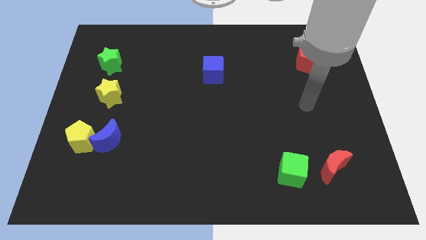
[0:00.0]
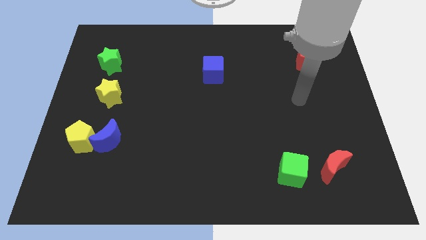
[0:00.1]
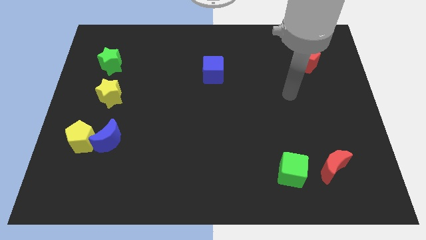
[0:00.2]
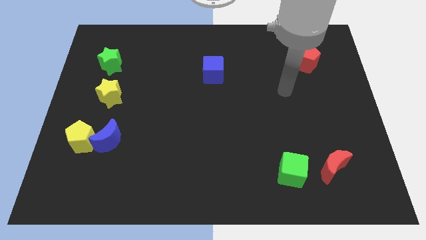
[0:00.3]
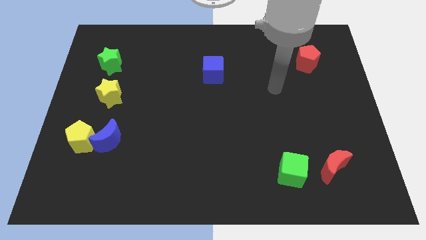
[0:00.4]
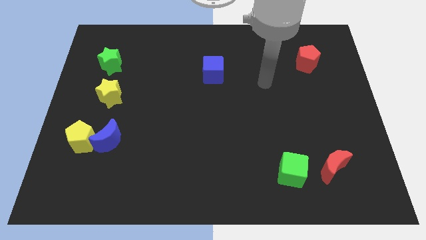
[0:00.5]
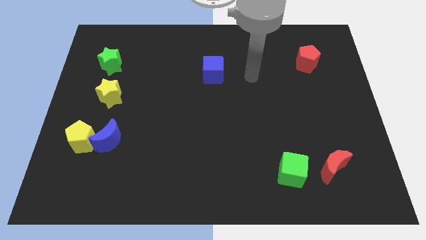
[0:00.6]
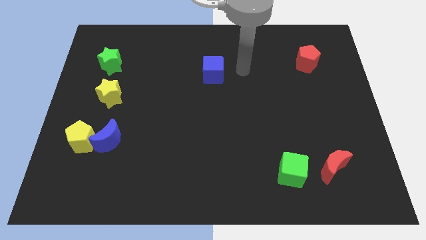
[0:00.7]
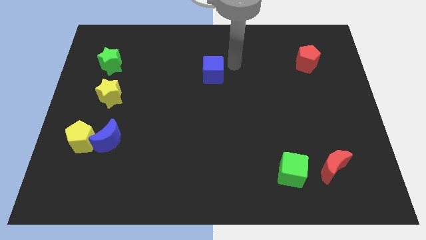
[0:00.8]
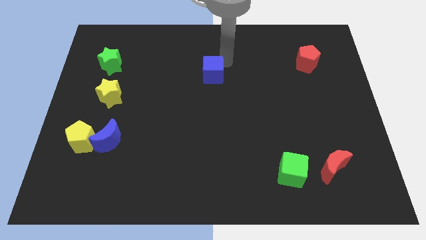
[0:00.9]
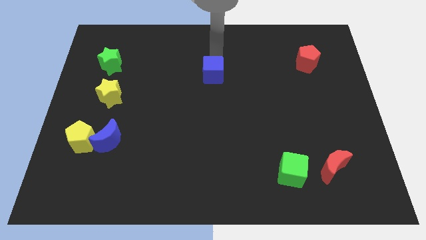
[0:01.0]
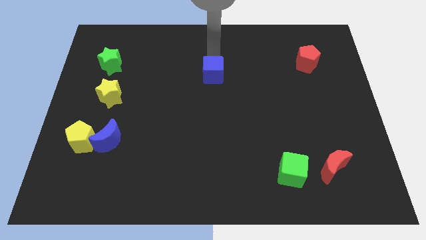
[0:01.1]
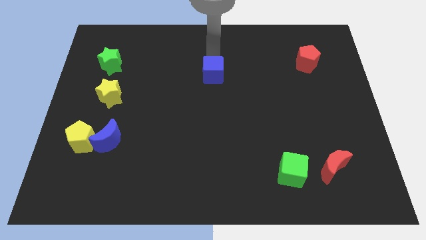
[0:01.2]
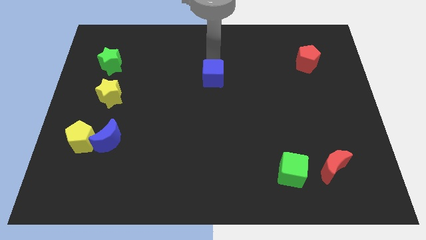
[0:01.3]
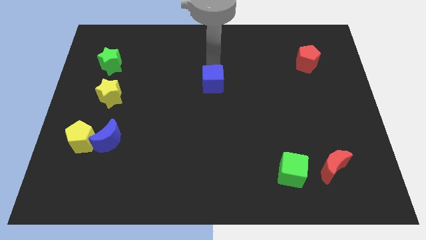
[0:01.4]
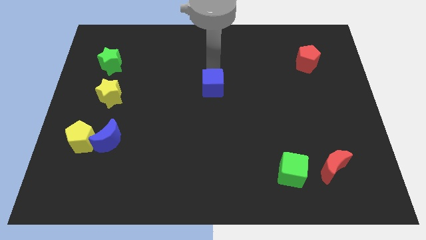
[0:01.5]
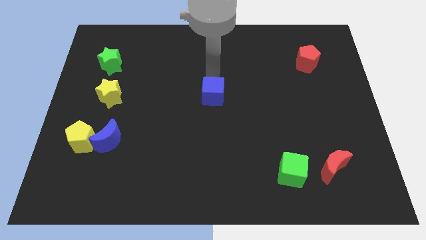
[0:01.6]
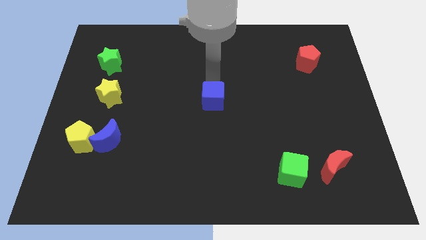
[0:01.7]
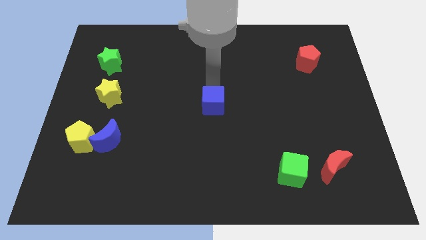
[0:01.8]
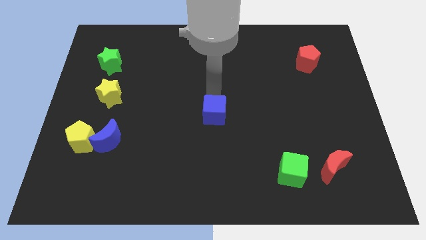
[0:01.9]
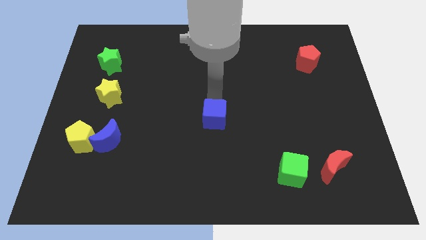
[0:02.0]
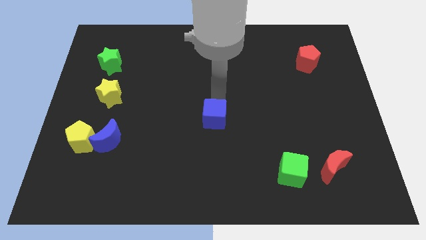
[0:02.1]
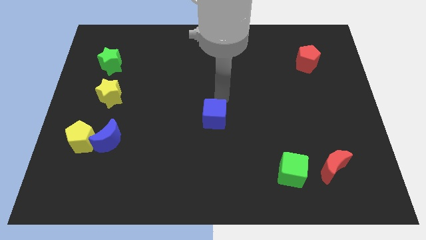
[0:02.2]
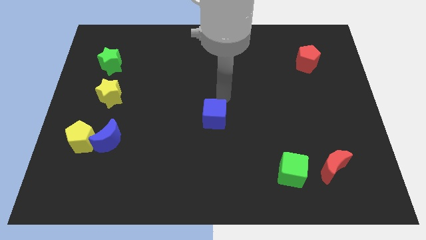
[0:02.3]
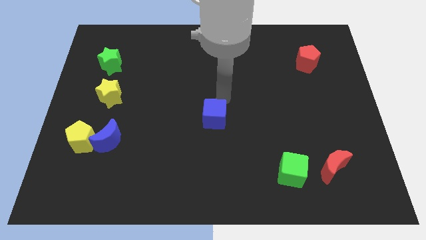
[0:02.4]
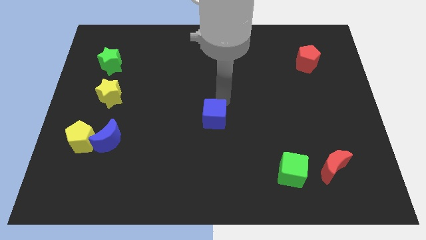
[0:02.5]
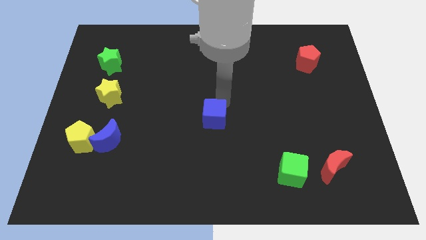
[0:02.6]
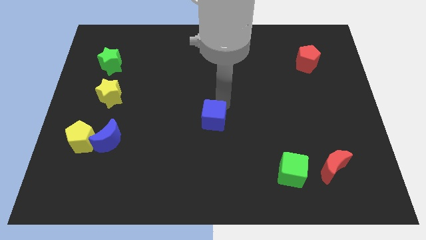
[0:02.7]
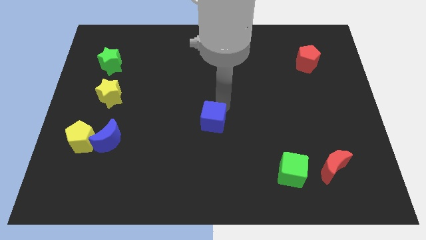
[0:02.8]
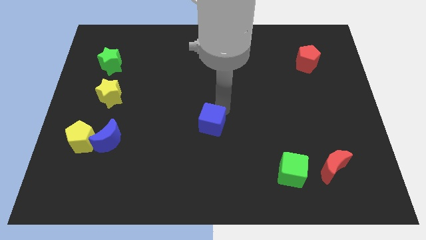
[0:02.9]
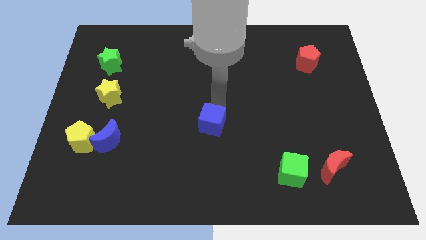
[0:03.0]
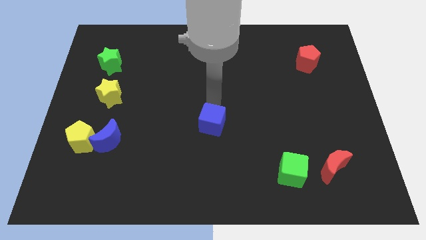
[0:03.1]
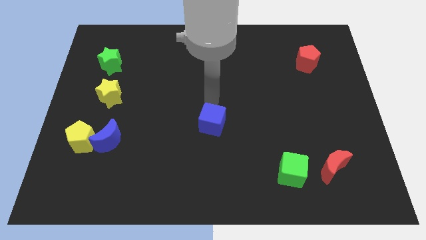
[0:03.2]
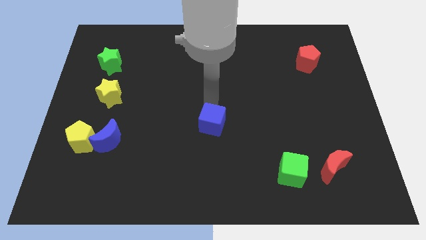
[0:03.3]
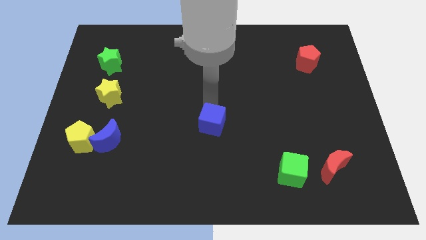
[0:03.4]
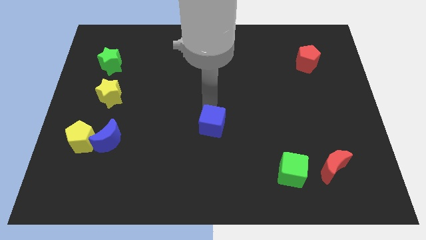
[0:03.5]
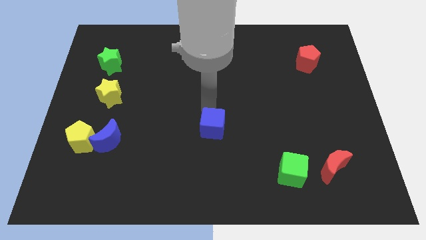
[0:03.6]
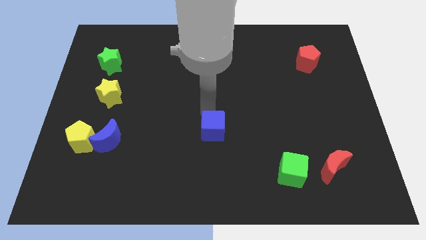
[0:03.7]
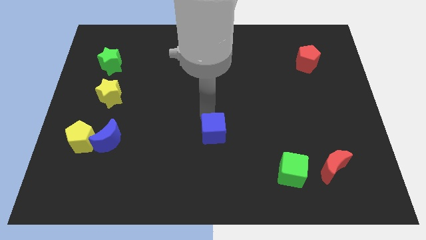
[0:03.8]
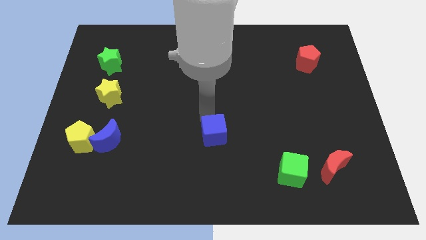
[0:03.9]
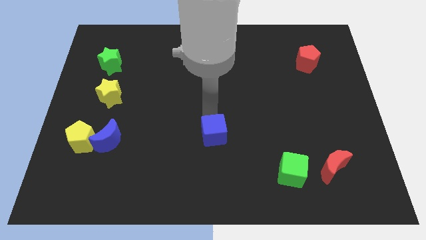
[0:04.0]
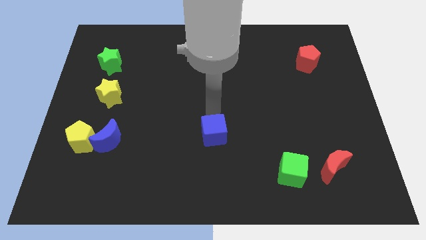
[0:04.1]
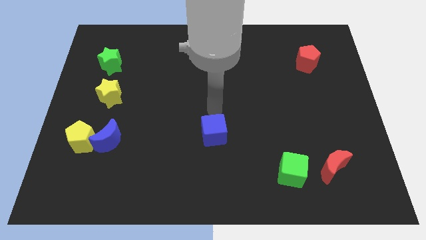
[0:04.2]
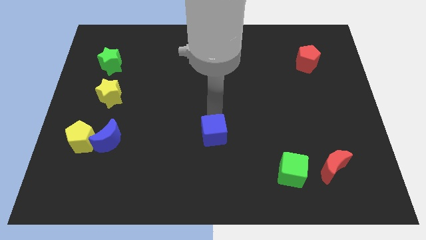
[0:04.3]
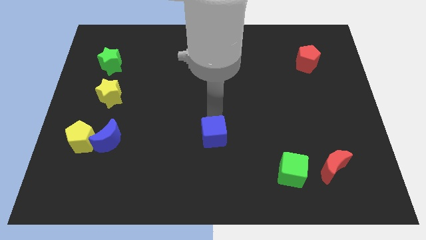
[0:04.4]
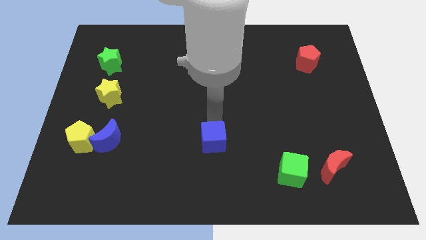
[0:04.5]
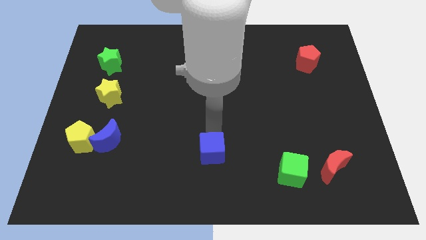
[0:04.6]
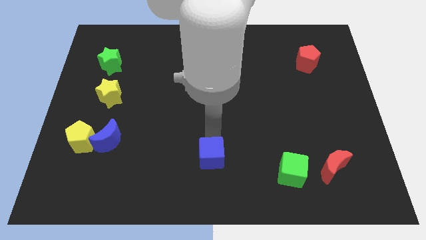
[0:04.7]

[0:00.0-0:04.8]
slide the blue cube to the bottom

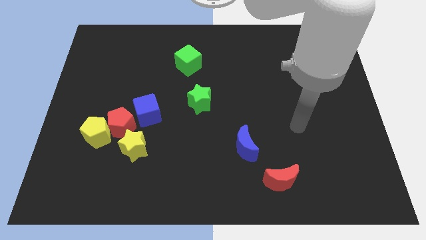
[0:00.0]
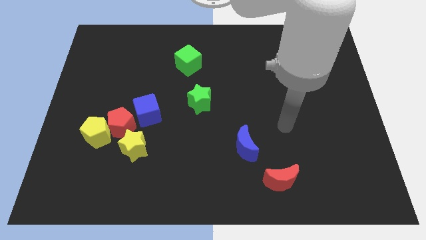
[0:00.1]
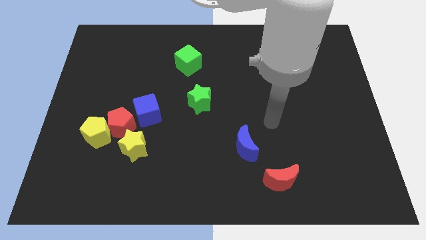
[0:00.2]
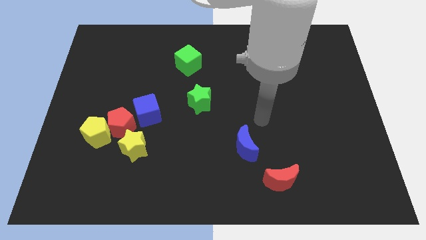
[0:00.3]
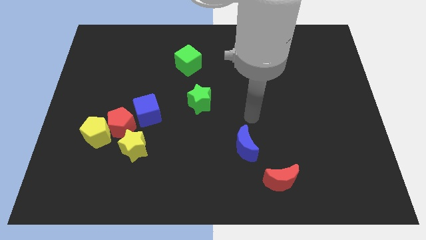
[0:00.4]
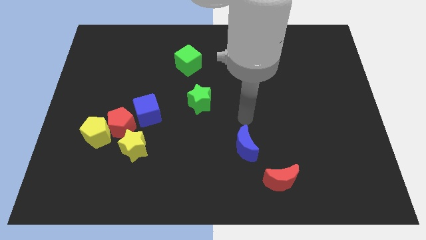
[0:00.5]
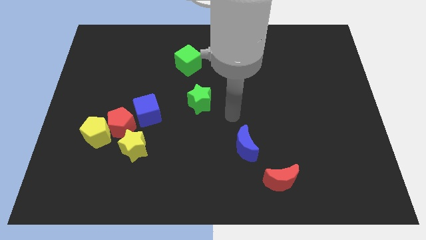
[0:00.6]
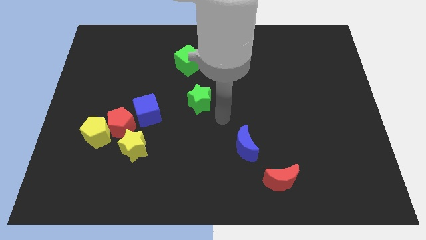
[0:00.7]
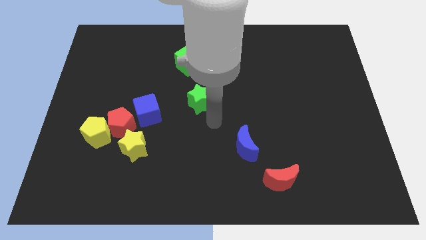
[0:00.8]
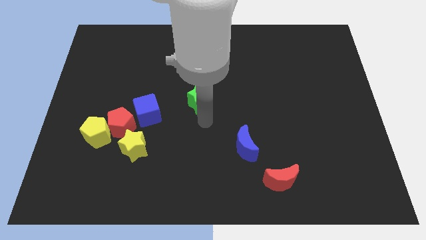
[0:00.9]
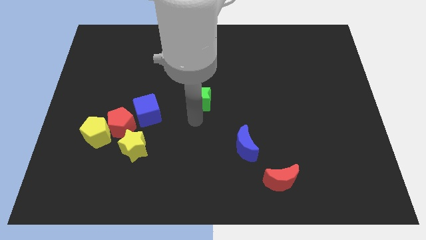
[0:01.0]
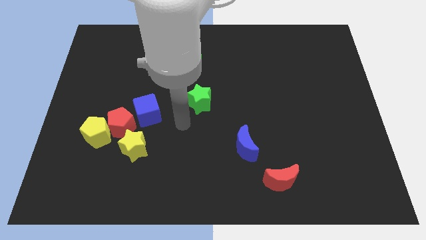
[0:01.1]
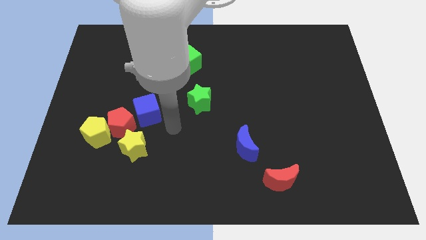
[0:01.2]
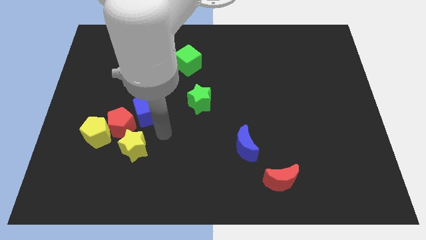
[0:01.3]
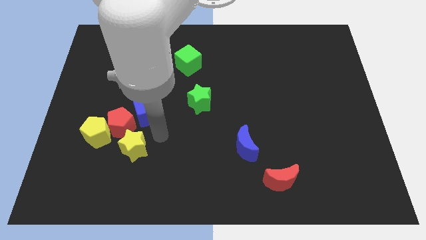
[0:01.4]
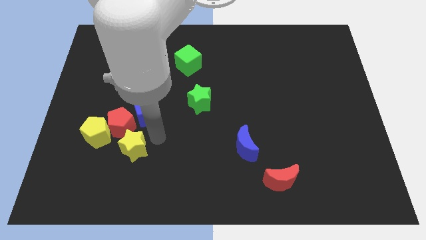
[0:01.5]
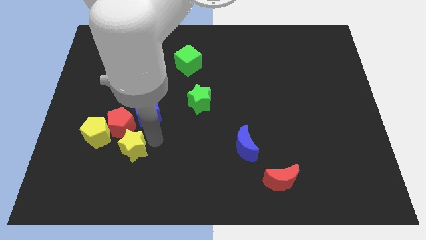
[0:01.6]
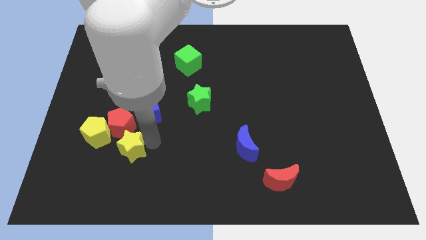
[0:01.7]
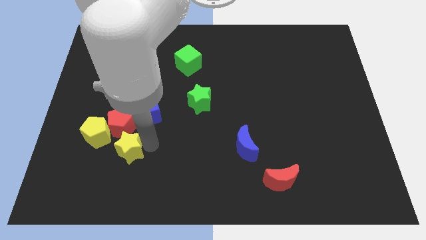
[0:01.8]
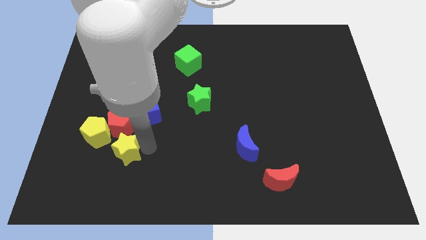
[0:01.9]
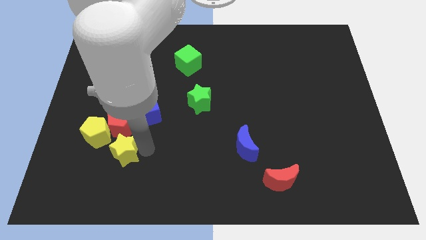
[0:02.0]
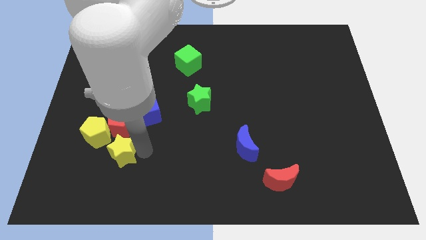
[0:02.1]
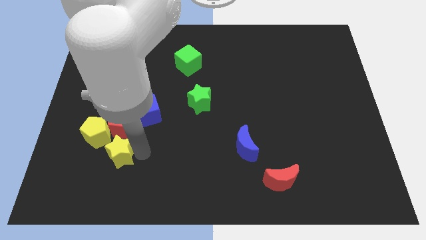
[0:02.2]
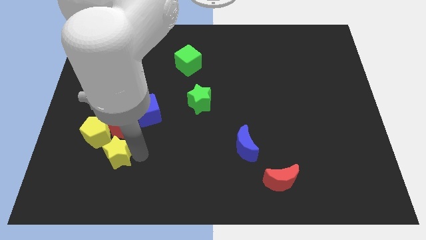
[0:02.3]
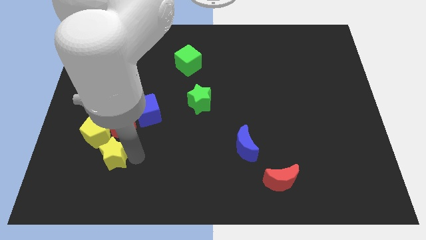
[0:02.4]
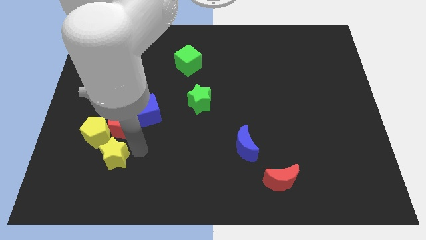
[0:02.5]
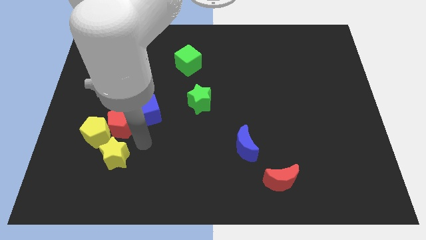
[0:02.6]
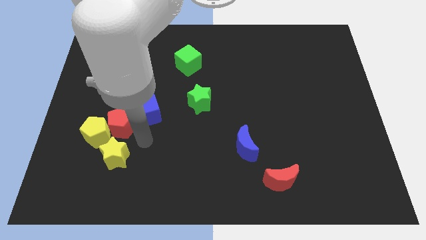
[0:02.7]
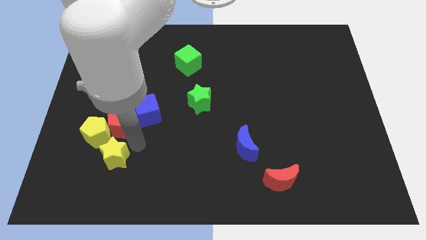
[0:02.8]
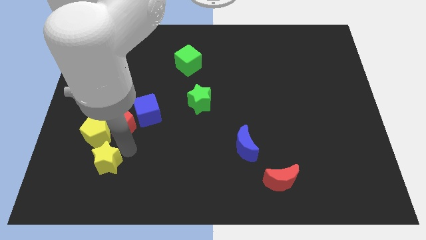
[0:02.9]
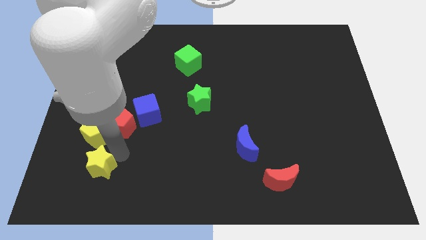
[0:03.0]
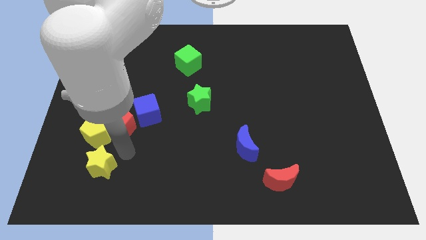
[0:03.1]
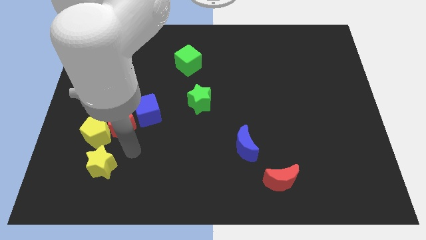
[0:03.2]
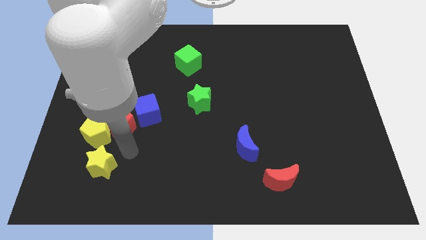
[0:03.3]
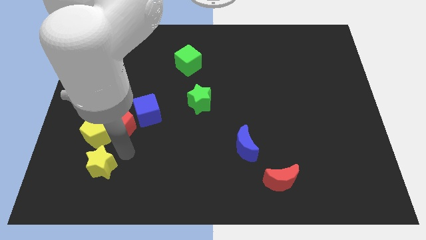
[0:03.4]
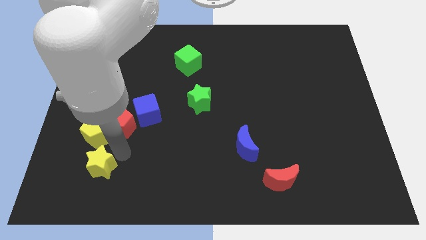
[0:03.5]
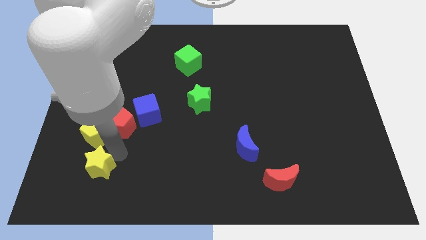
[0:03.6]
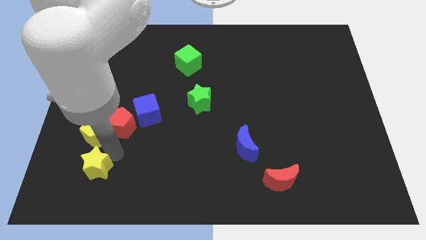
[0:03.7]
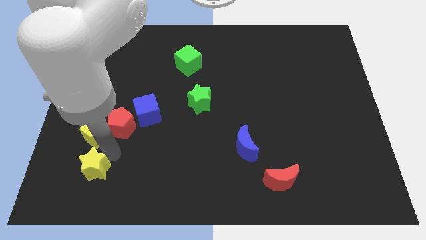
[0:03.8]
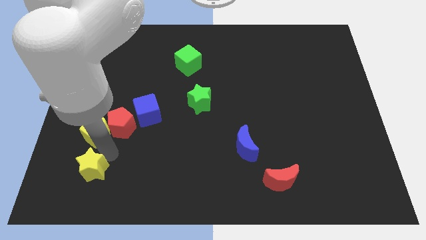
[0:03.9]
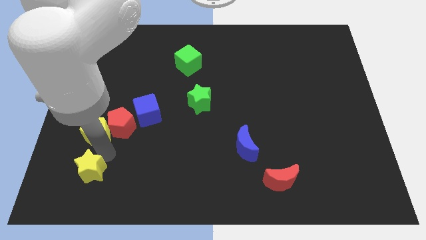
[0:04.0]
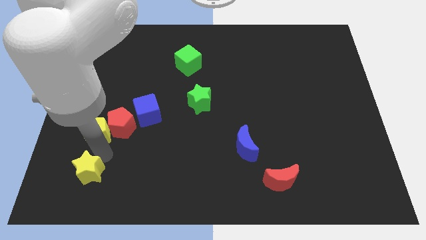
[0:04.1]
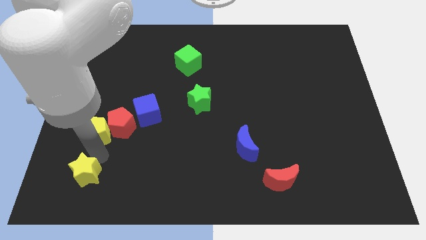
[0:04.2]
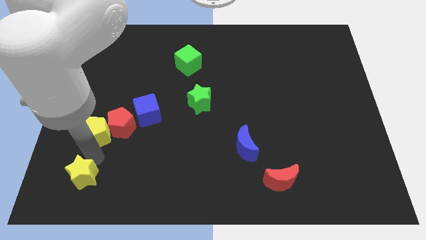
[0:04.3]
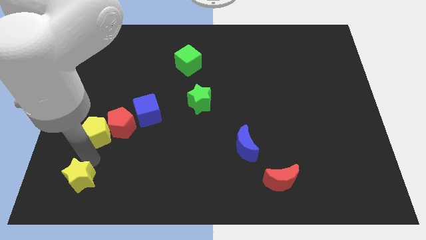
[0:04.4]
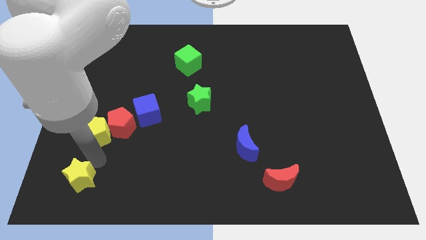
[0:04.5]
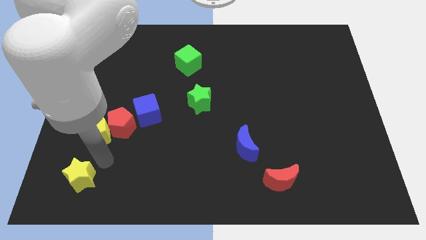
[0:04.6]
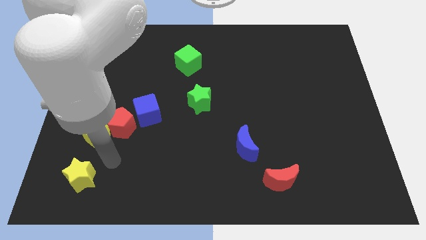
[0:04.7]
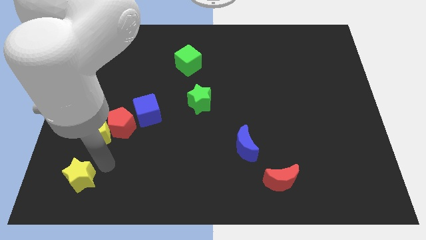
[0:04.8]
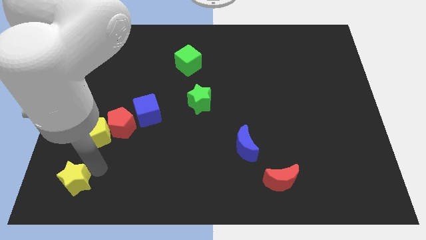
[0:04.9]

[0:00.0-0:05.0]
push the yellow star to the lower left corner
